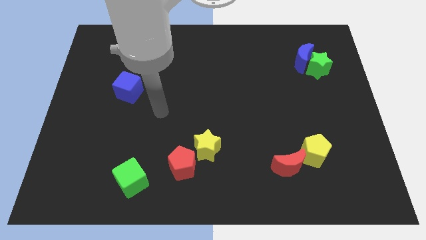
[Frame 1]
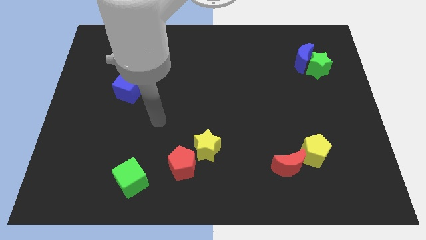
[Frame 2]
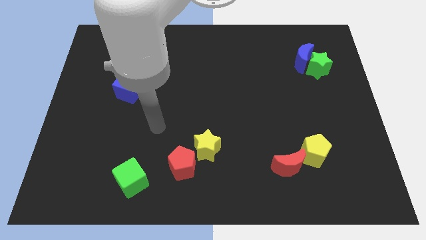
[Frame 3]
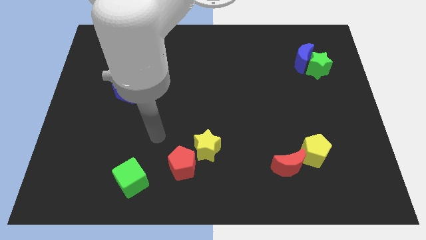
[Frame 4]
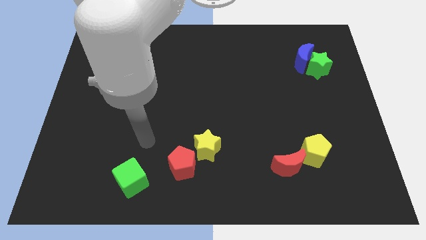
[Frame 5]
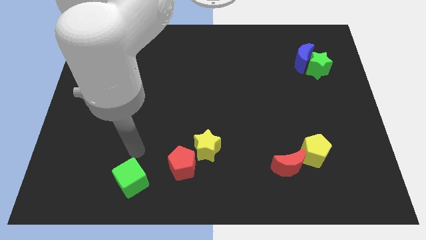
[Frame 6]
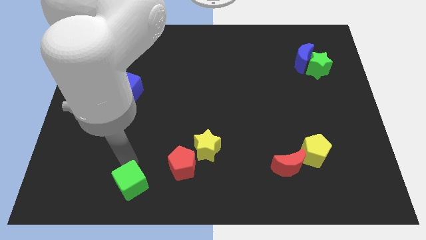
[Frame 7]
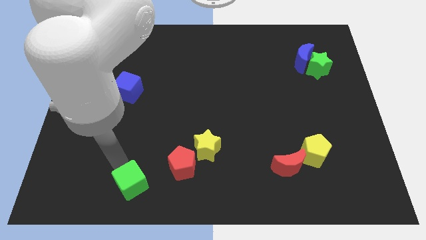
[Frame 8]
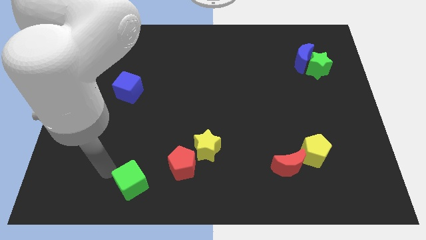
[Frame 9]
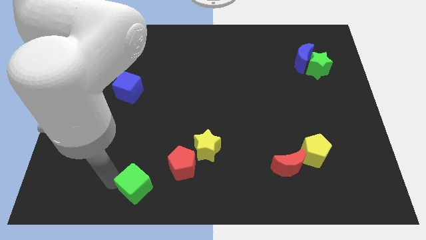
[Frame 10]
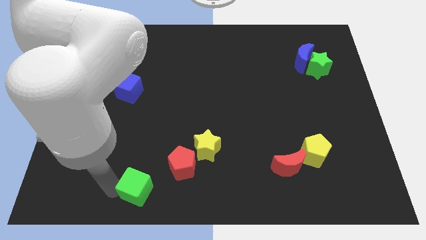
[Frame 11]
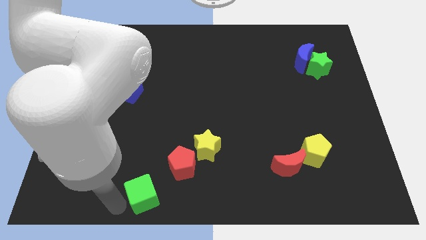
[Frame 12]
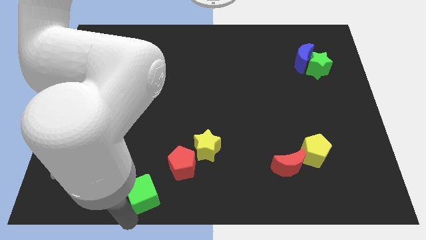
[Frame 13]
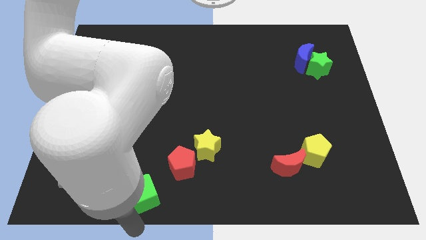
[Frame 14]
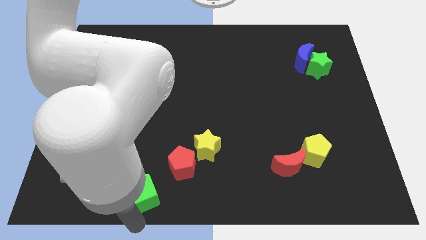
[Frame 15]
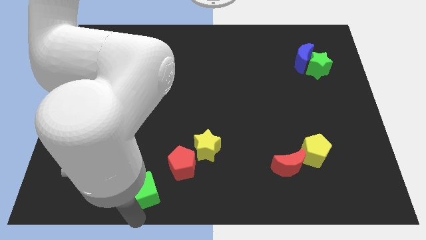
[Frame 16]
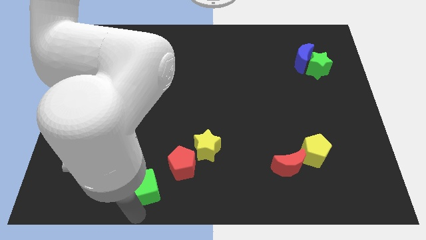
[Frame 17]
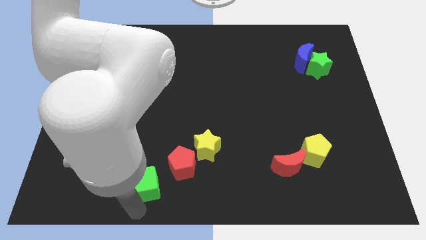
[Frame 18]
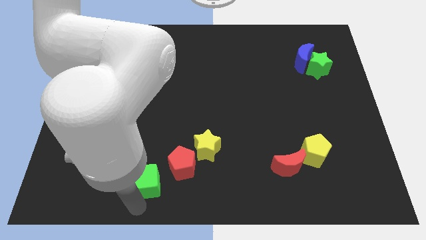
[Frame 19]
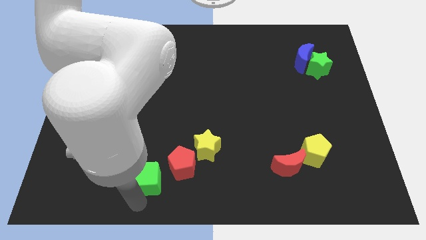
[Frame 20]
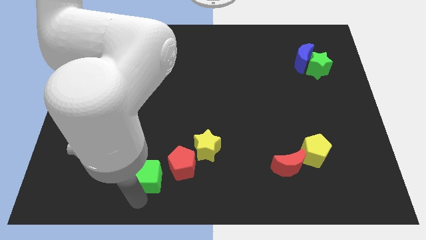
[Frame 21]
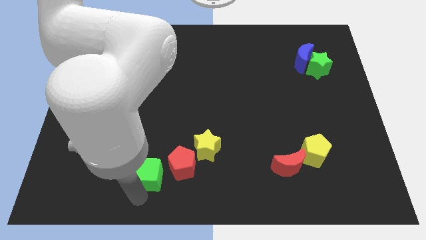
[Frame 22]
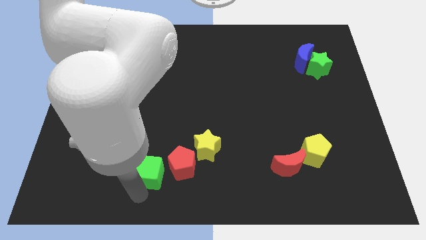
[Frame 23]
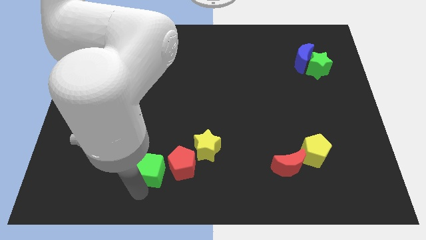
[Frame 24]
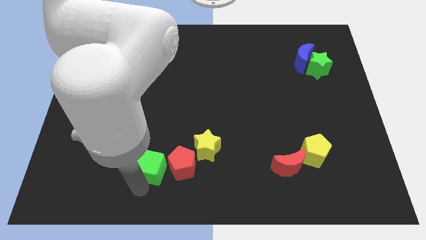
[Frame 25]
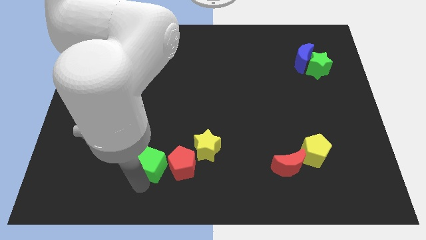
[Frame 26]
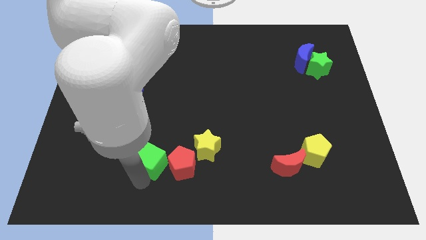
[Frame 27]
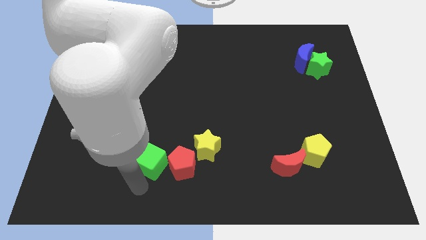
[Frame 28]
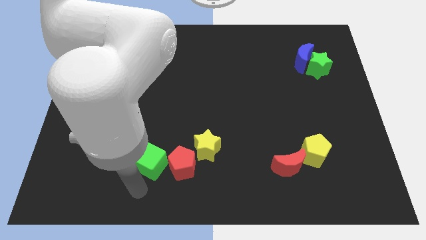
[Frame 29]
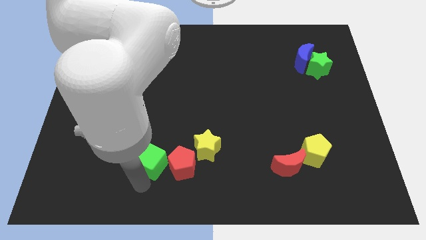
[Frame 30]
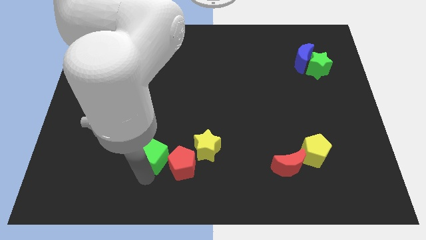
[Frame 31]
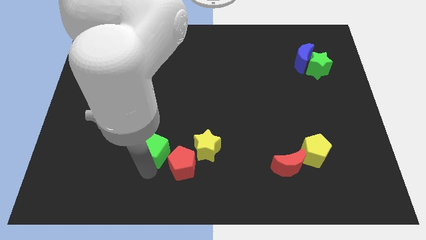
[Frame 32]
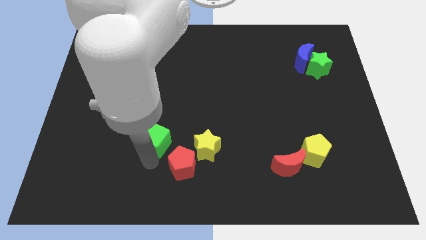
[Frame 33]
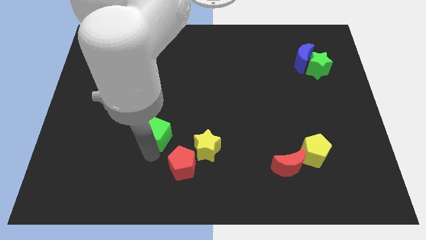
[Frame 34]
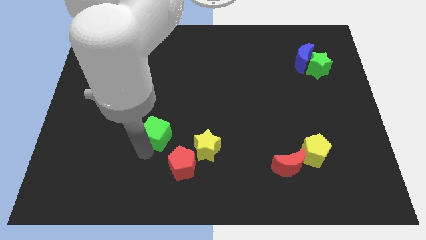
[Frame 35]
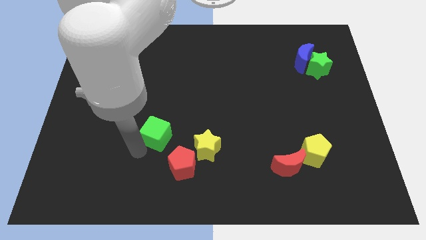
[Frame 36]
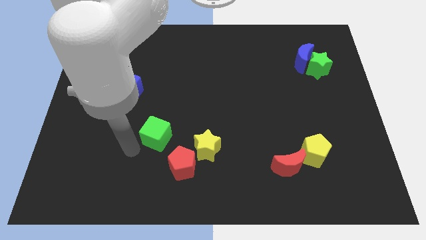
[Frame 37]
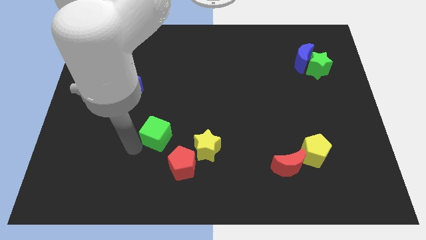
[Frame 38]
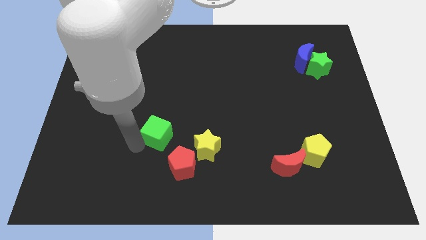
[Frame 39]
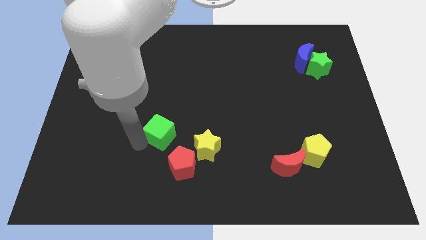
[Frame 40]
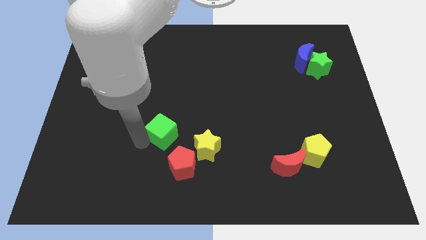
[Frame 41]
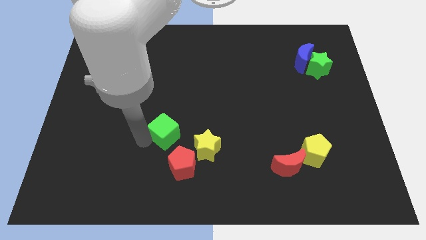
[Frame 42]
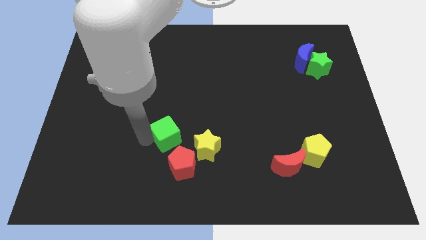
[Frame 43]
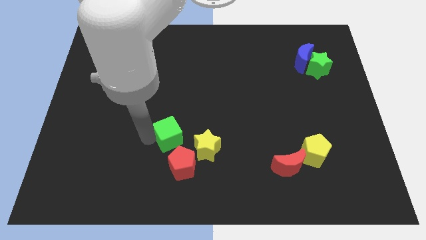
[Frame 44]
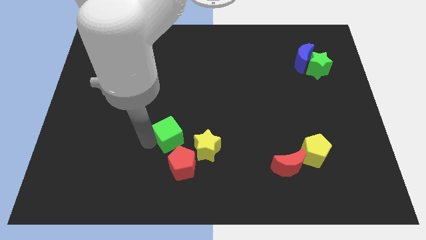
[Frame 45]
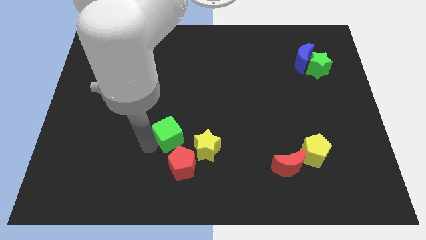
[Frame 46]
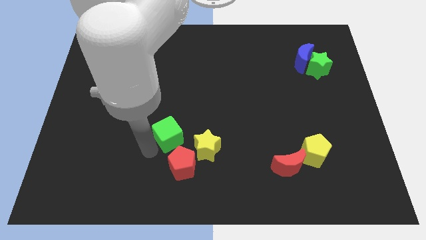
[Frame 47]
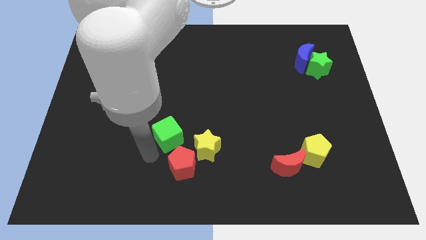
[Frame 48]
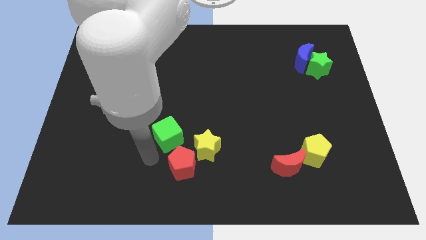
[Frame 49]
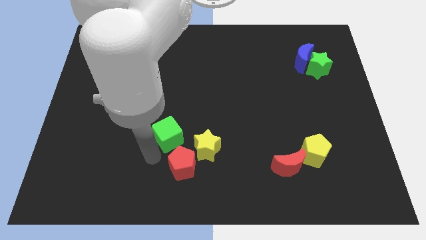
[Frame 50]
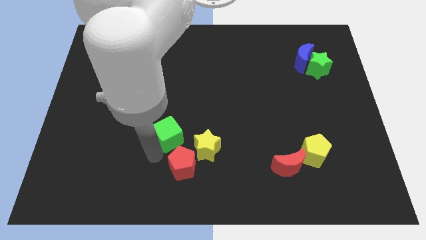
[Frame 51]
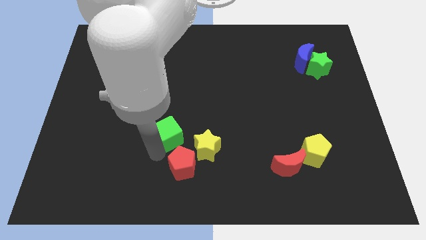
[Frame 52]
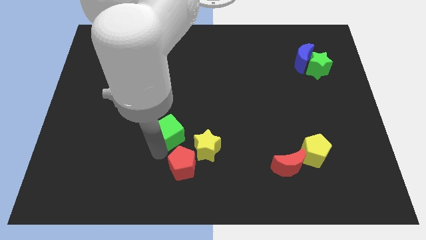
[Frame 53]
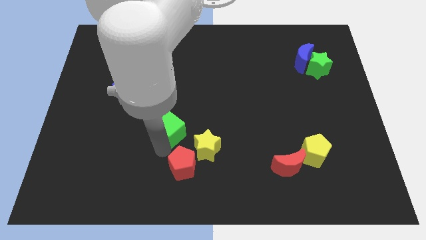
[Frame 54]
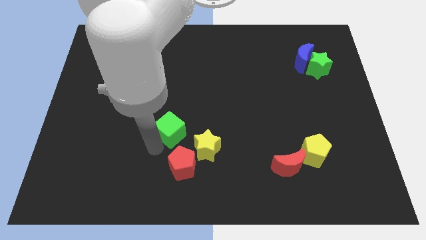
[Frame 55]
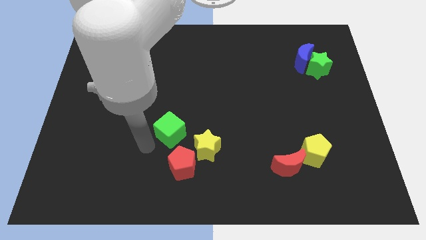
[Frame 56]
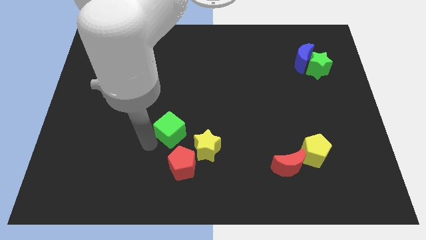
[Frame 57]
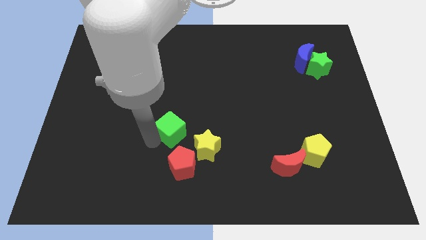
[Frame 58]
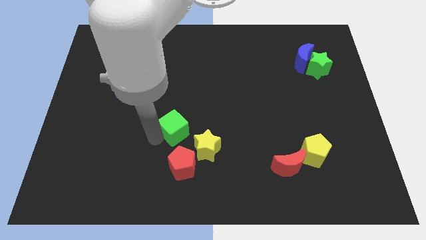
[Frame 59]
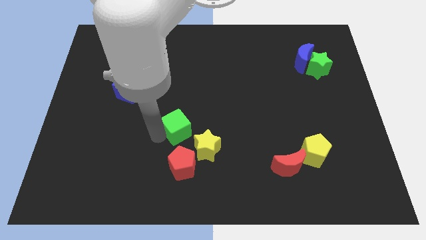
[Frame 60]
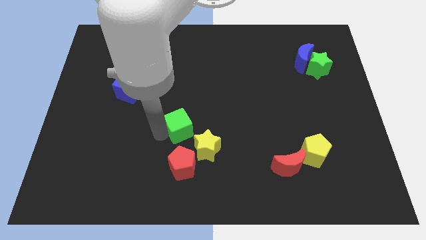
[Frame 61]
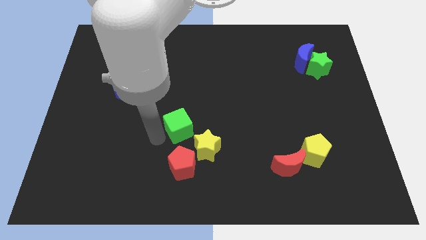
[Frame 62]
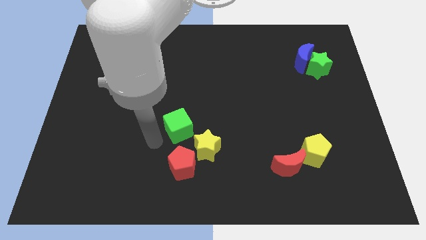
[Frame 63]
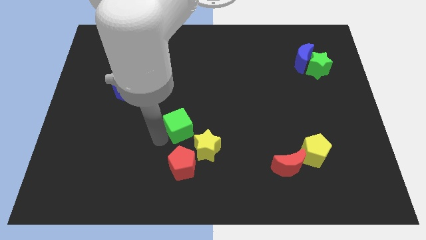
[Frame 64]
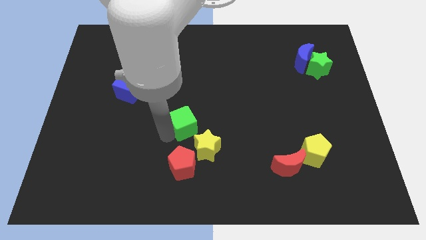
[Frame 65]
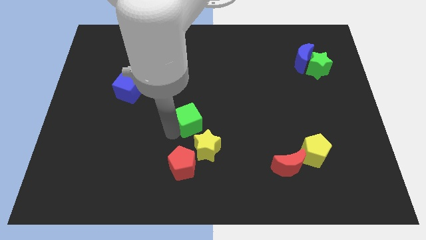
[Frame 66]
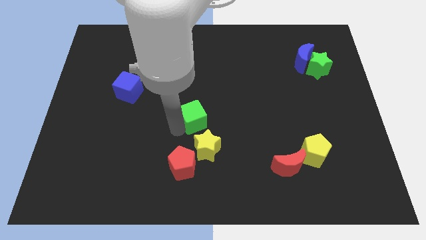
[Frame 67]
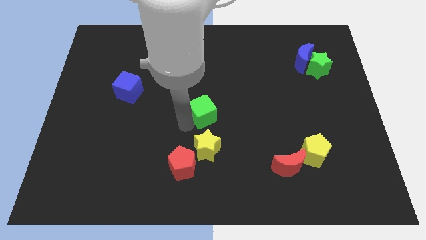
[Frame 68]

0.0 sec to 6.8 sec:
move the green cube diagonally upwards and to the right

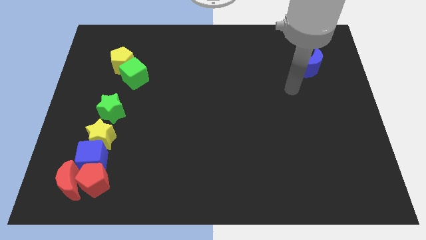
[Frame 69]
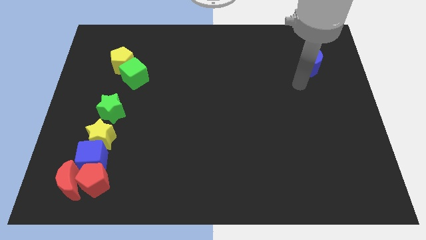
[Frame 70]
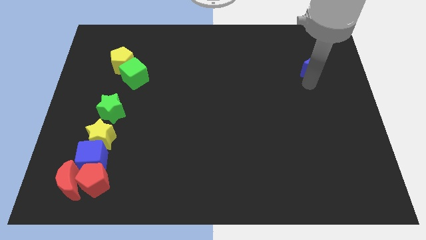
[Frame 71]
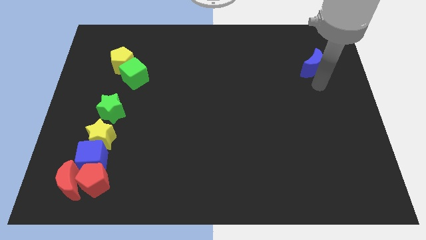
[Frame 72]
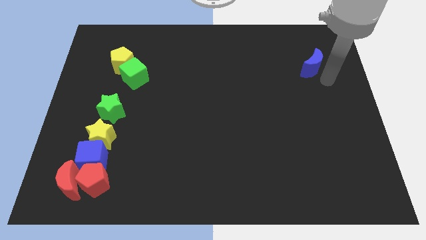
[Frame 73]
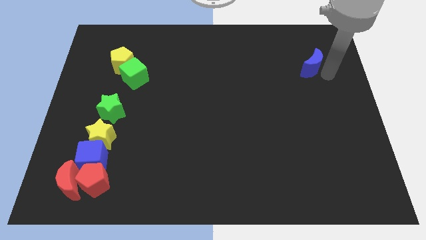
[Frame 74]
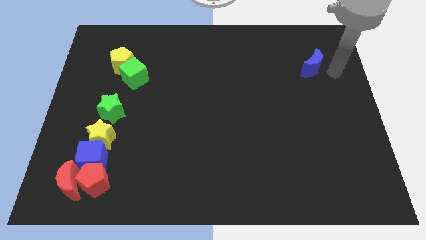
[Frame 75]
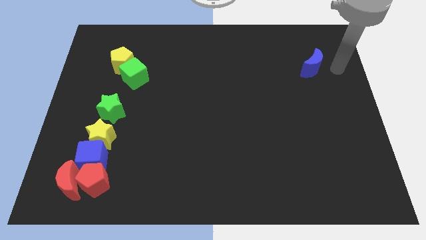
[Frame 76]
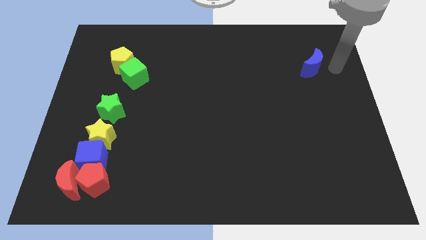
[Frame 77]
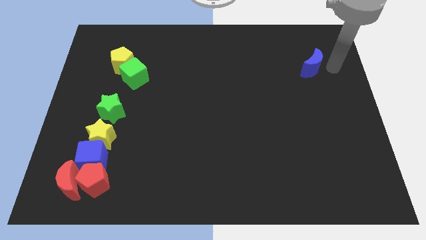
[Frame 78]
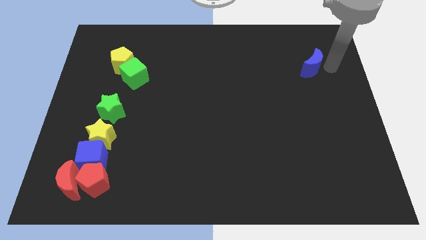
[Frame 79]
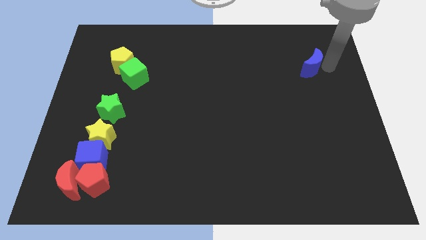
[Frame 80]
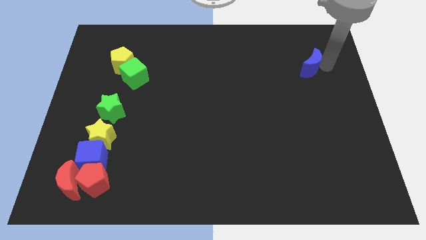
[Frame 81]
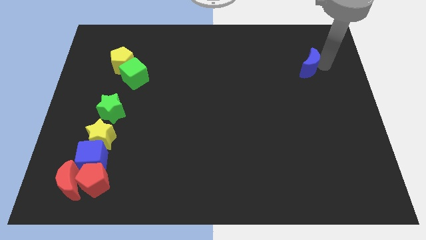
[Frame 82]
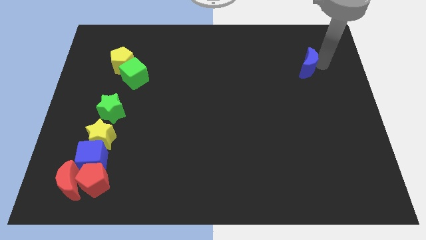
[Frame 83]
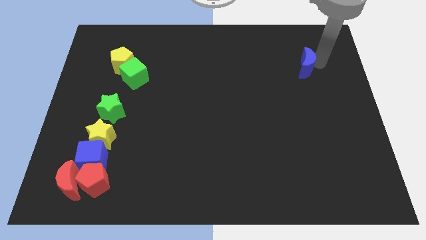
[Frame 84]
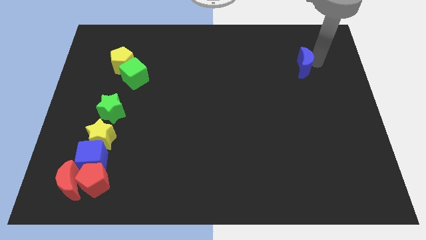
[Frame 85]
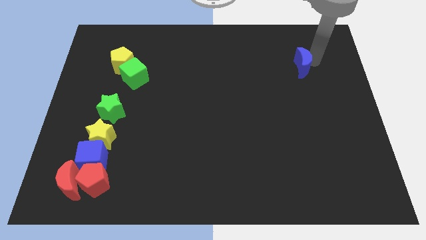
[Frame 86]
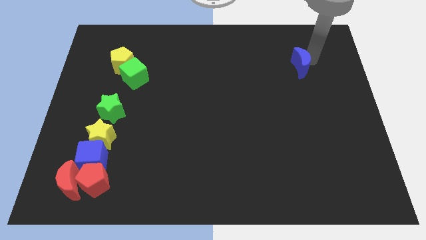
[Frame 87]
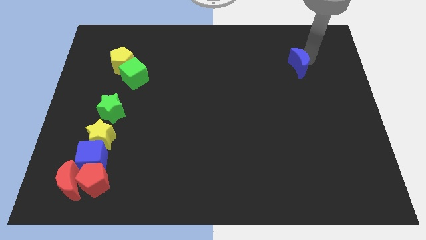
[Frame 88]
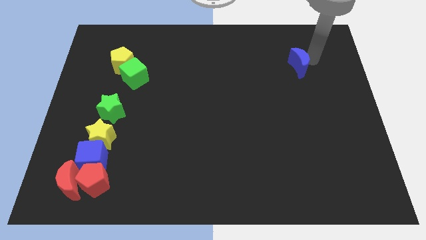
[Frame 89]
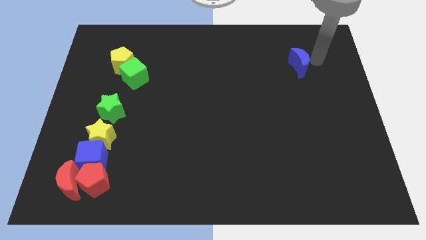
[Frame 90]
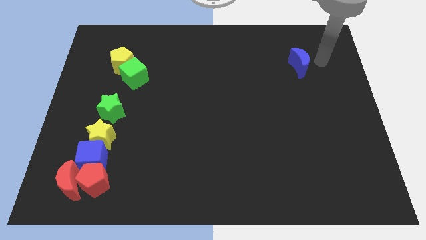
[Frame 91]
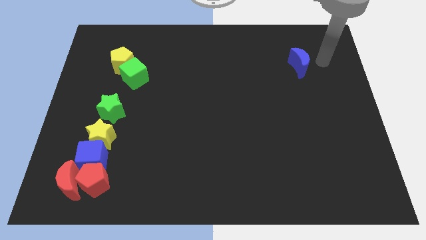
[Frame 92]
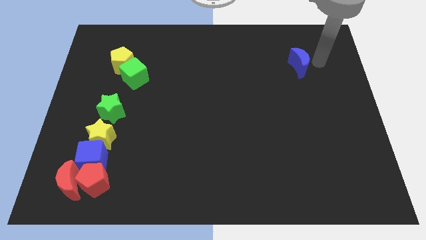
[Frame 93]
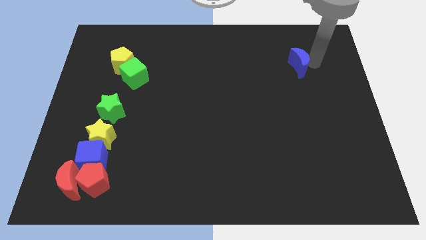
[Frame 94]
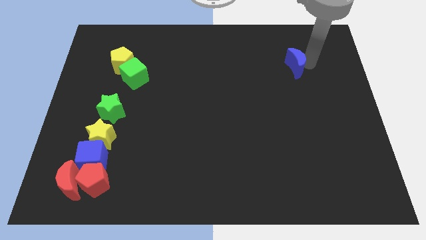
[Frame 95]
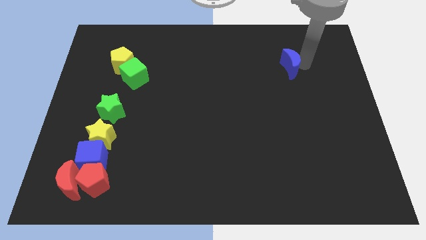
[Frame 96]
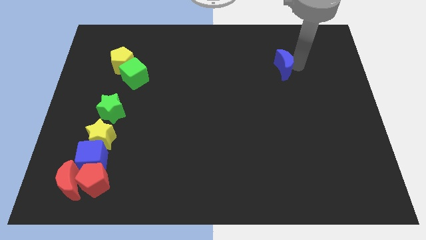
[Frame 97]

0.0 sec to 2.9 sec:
slide the blue moon left slightly
